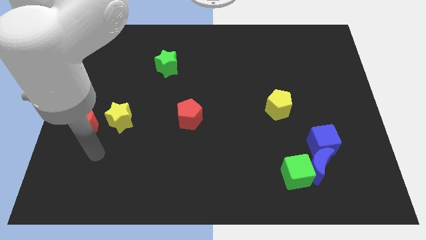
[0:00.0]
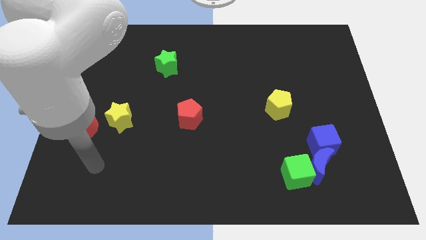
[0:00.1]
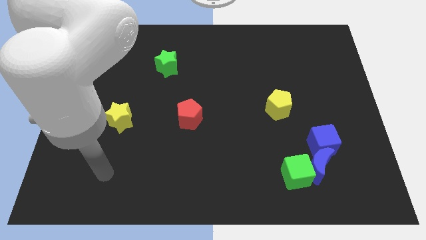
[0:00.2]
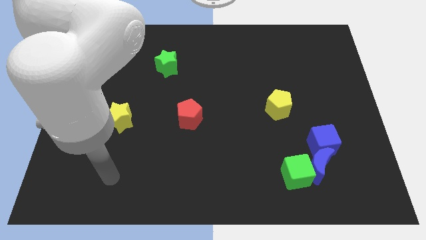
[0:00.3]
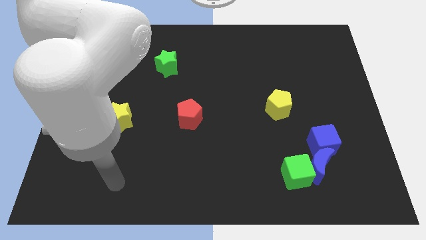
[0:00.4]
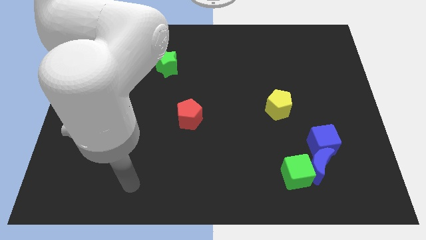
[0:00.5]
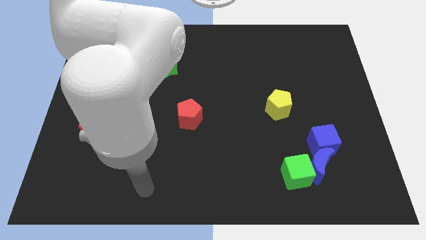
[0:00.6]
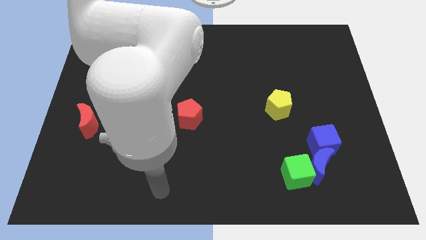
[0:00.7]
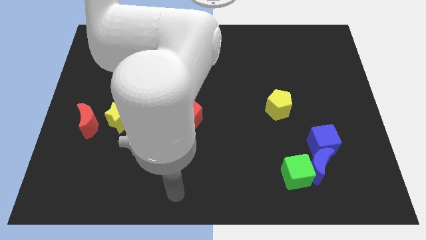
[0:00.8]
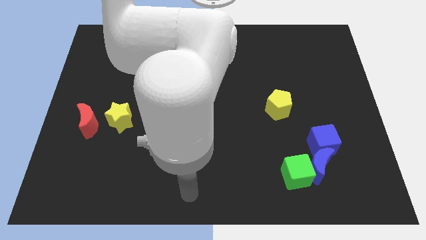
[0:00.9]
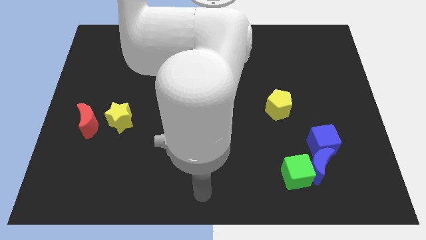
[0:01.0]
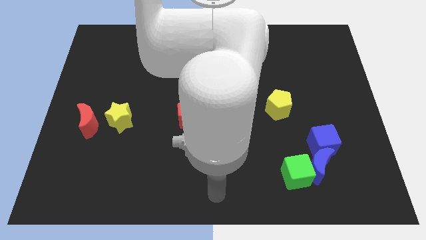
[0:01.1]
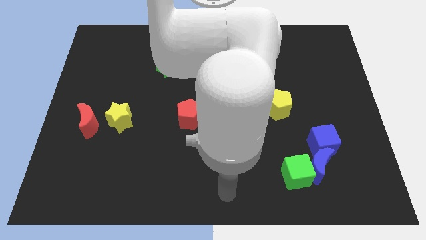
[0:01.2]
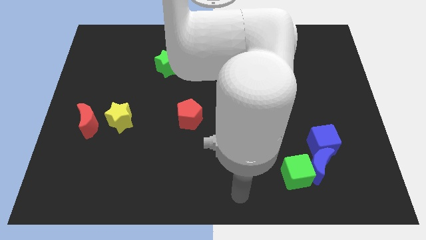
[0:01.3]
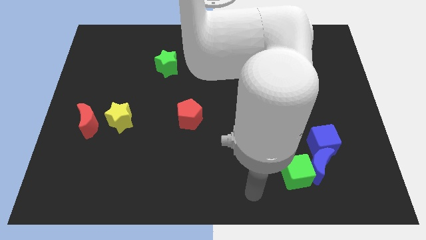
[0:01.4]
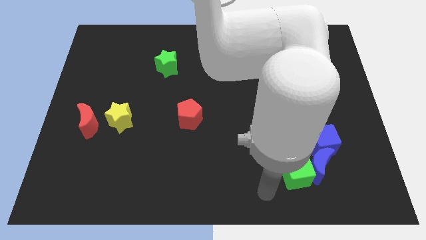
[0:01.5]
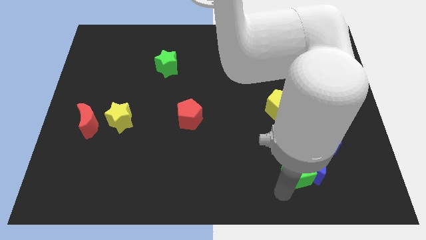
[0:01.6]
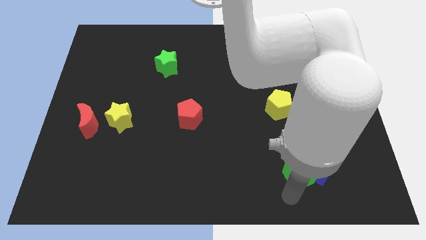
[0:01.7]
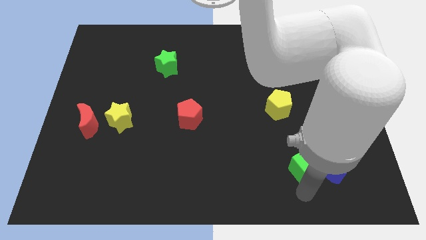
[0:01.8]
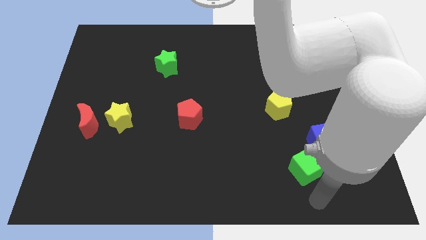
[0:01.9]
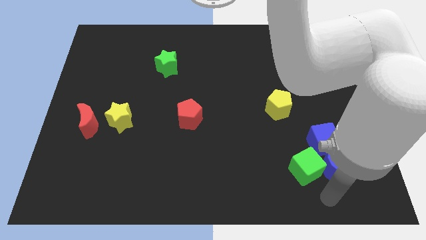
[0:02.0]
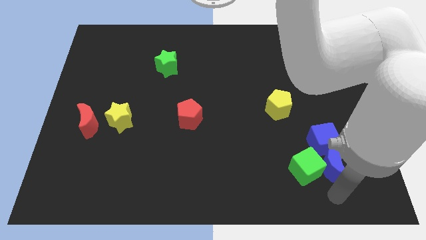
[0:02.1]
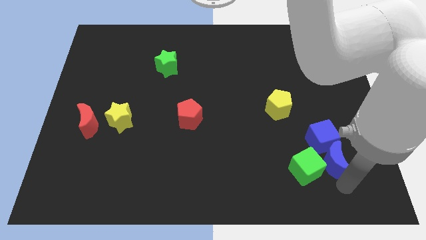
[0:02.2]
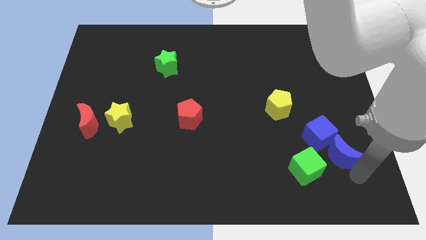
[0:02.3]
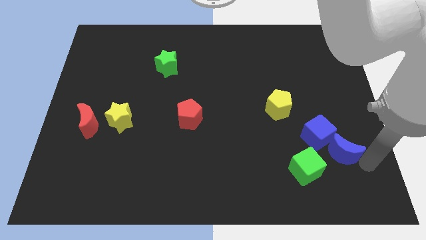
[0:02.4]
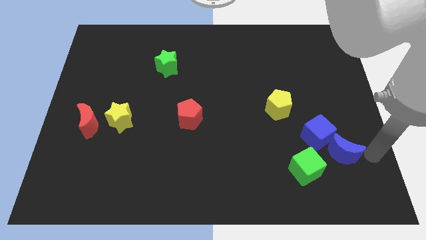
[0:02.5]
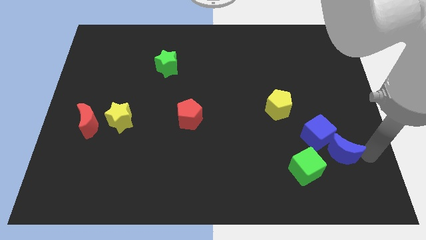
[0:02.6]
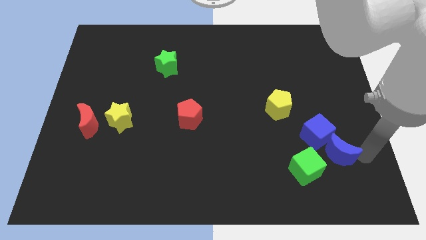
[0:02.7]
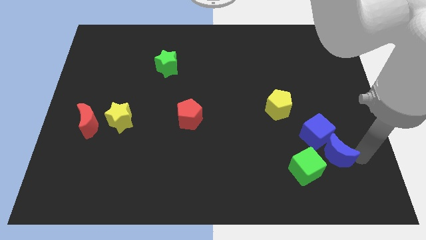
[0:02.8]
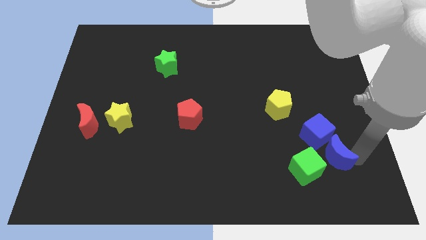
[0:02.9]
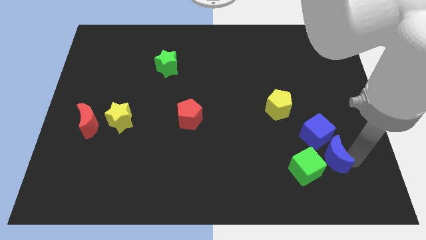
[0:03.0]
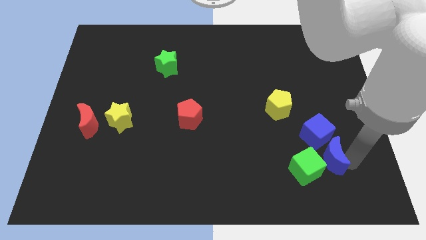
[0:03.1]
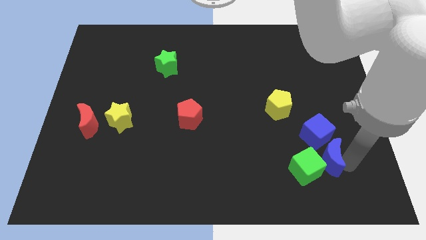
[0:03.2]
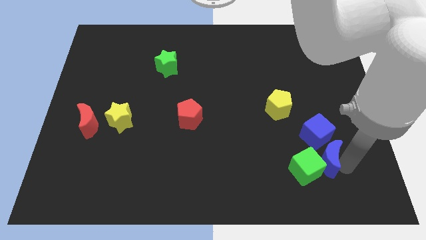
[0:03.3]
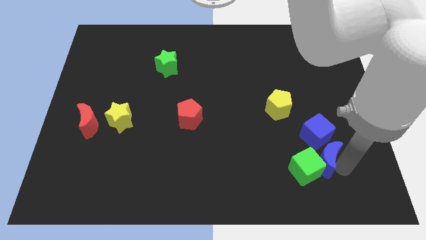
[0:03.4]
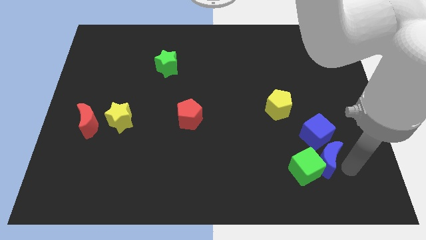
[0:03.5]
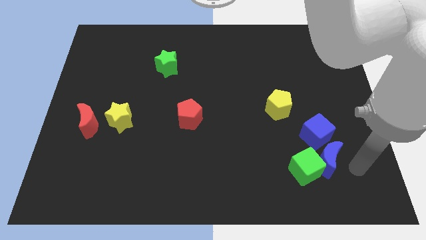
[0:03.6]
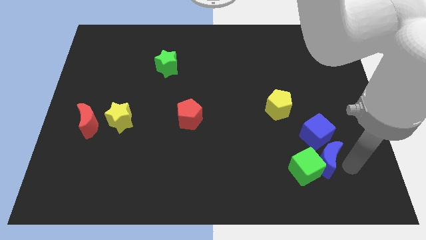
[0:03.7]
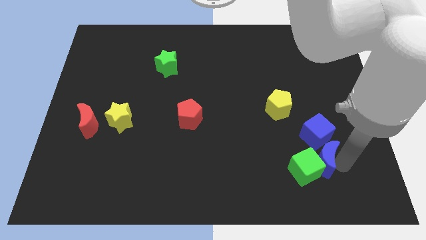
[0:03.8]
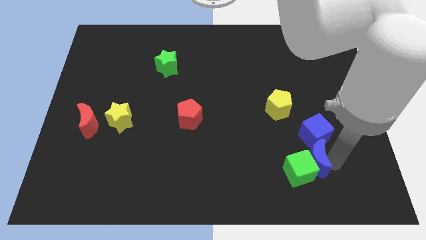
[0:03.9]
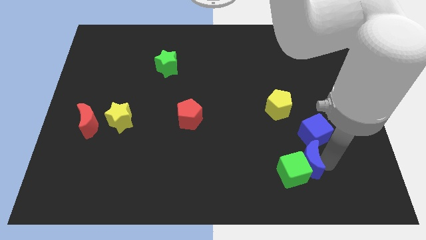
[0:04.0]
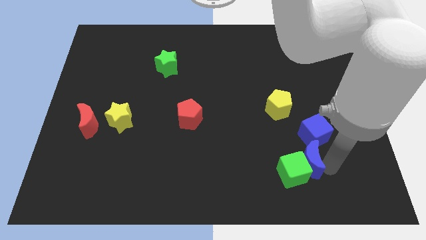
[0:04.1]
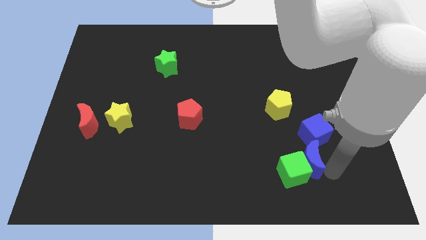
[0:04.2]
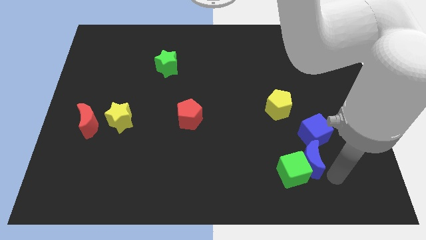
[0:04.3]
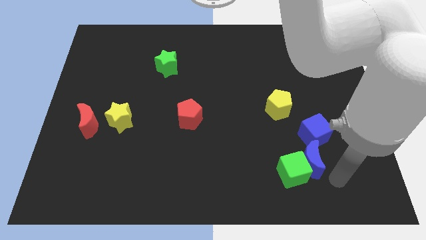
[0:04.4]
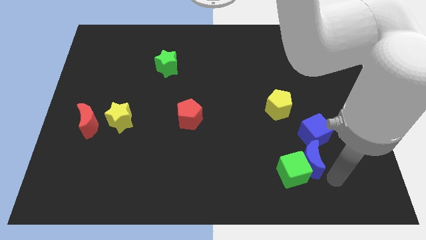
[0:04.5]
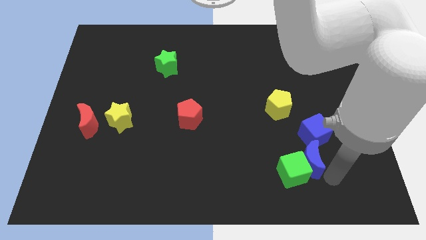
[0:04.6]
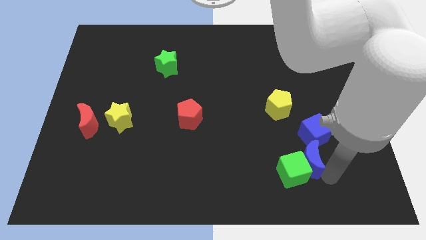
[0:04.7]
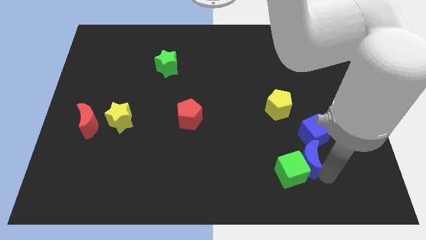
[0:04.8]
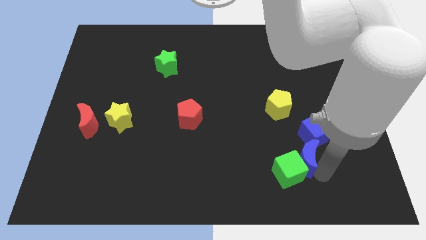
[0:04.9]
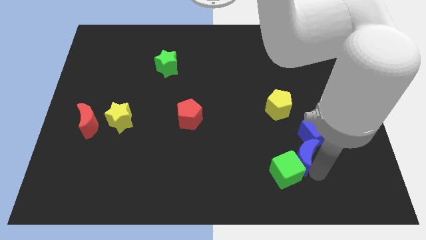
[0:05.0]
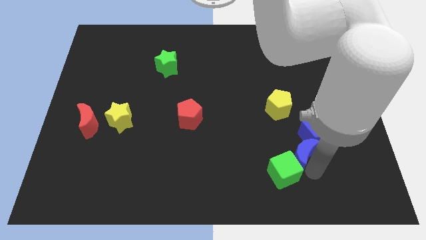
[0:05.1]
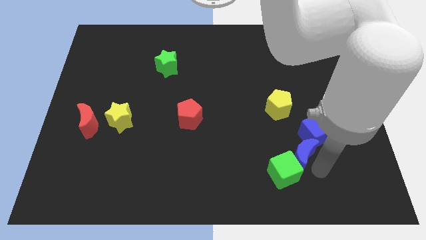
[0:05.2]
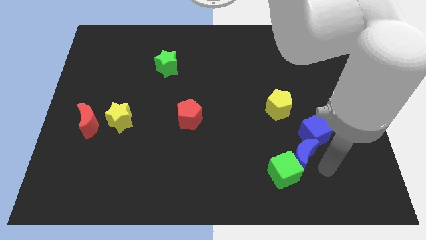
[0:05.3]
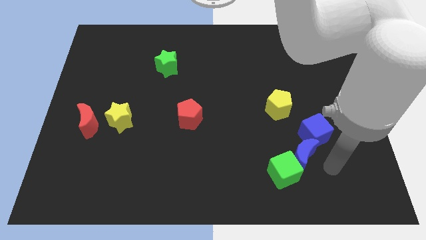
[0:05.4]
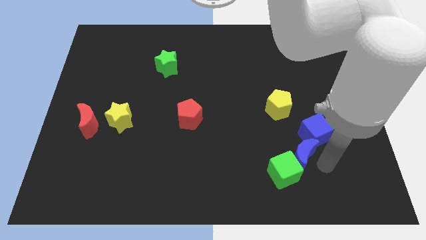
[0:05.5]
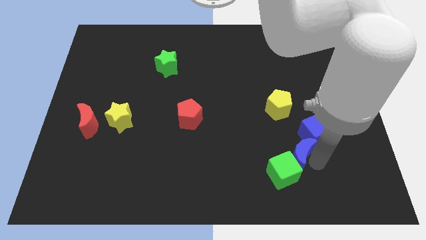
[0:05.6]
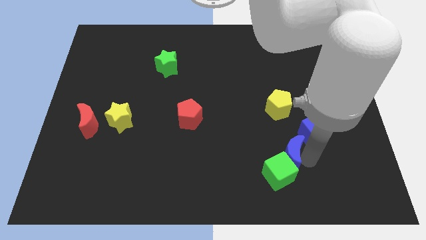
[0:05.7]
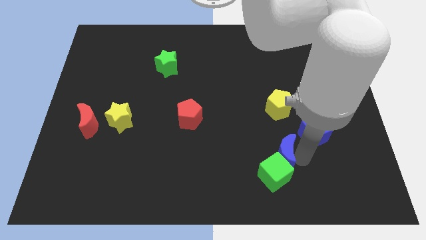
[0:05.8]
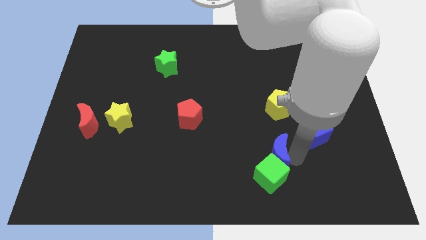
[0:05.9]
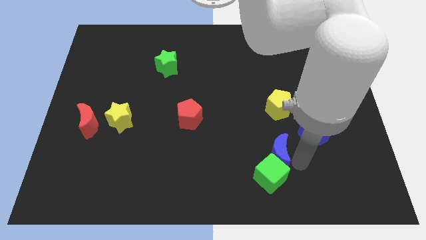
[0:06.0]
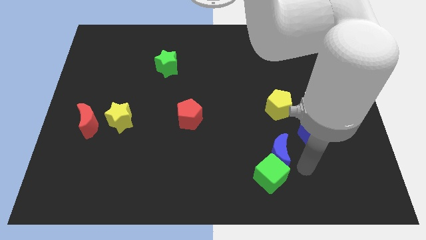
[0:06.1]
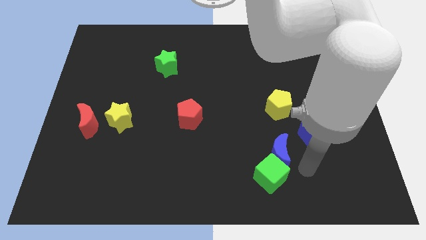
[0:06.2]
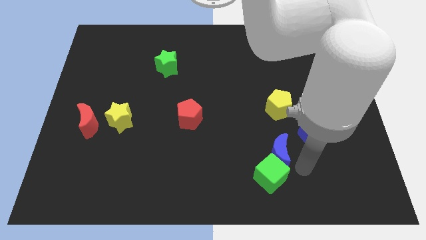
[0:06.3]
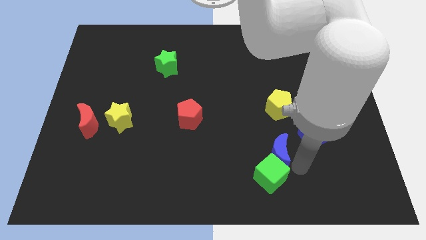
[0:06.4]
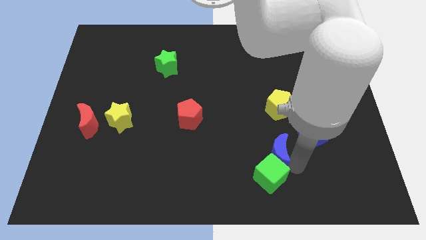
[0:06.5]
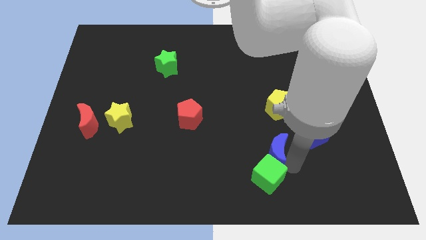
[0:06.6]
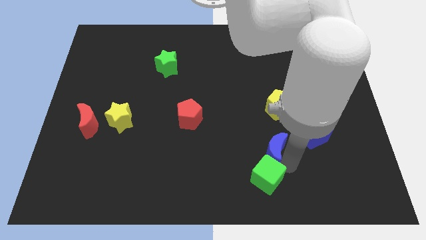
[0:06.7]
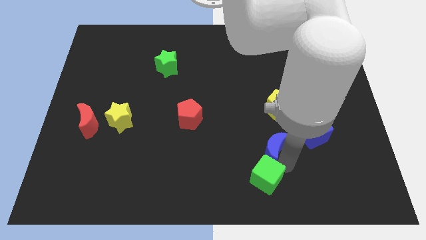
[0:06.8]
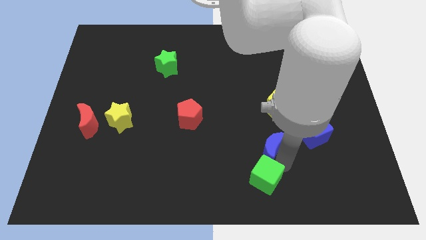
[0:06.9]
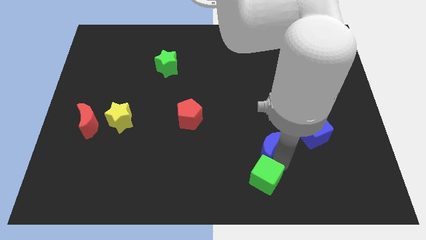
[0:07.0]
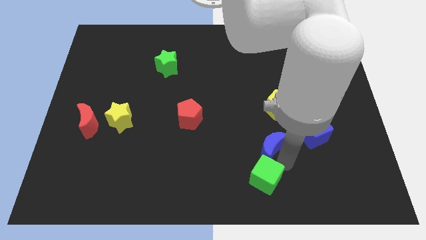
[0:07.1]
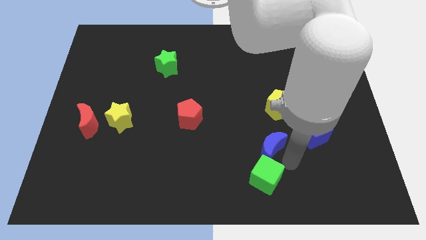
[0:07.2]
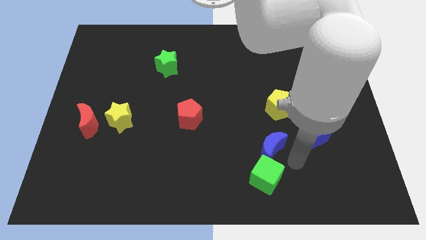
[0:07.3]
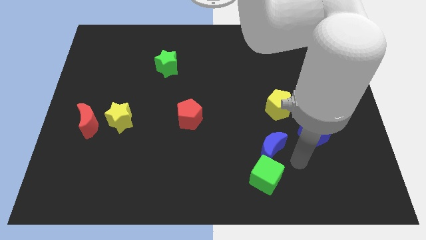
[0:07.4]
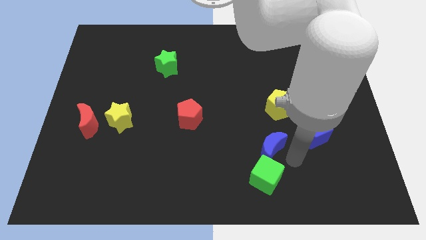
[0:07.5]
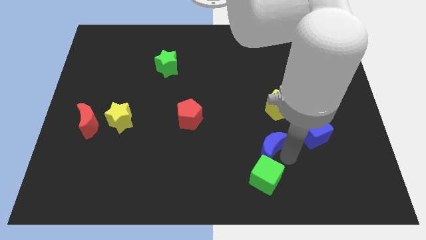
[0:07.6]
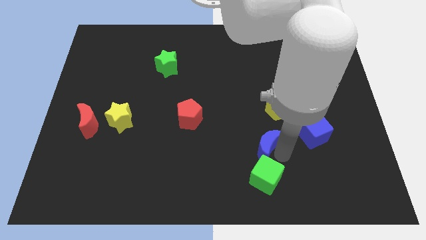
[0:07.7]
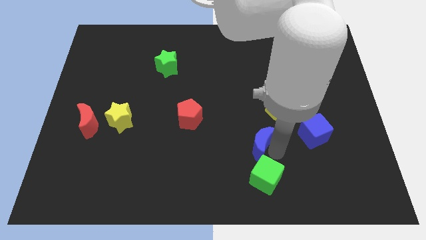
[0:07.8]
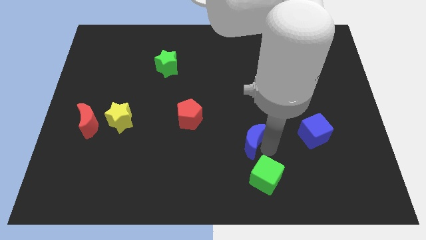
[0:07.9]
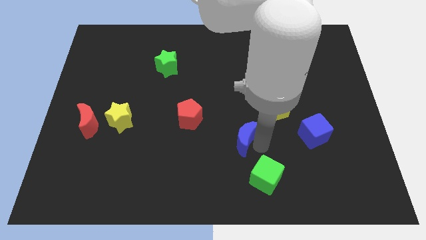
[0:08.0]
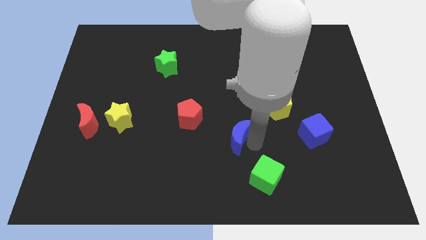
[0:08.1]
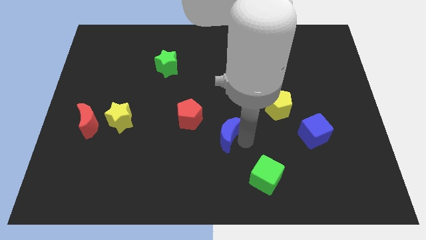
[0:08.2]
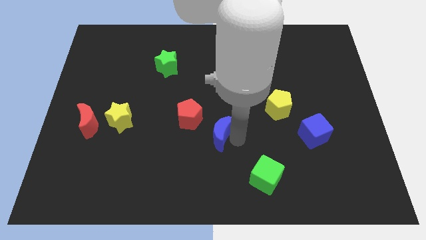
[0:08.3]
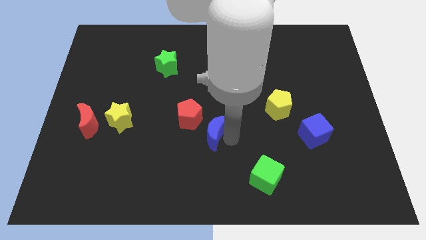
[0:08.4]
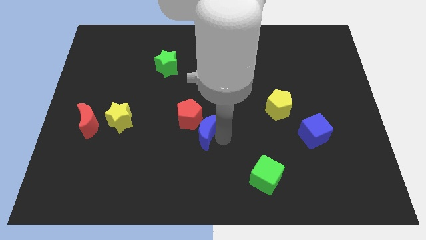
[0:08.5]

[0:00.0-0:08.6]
push the blue moon close to the red pentagon
